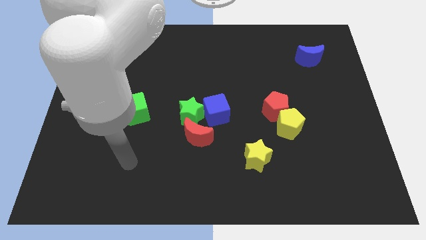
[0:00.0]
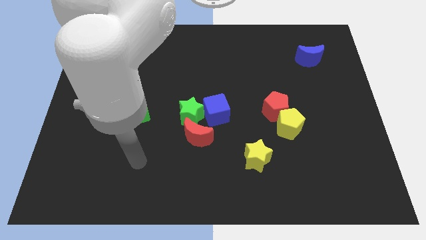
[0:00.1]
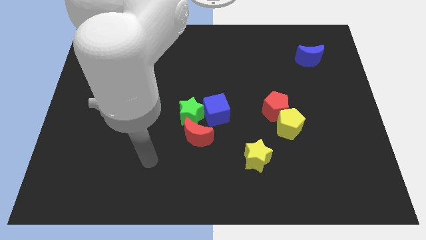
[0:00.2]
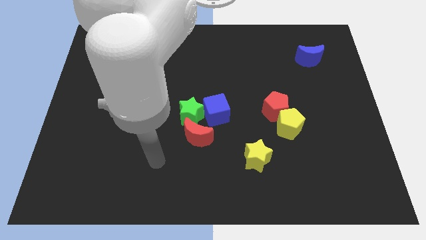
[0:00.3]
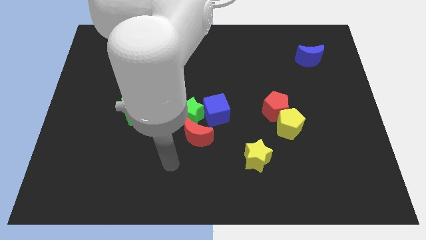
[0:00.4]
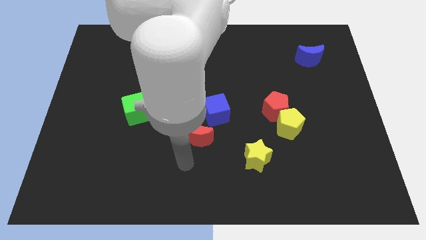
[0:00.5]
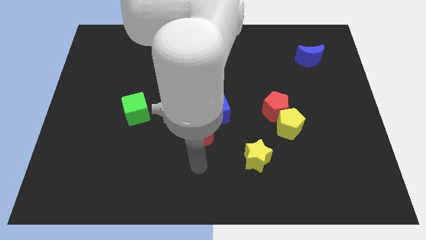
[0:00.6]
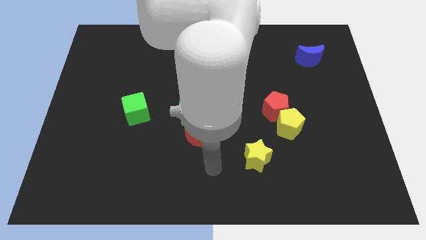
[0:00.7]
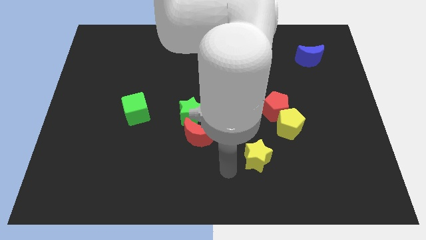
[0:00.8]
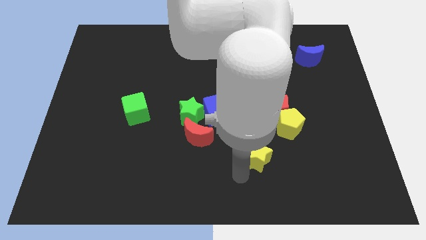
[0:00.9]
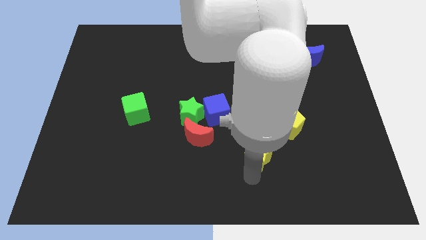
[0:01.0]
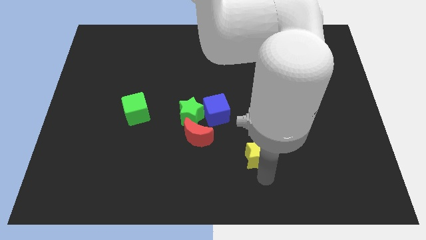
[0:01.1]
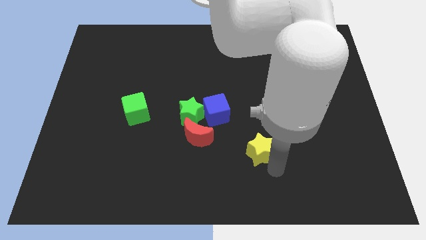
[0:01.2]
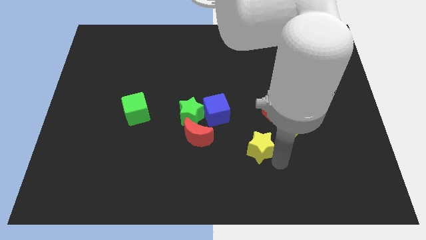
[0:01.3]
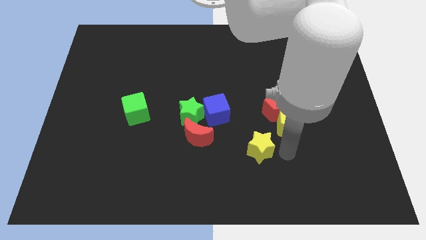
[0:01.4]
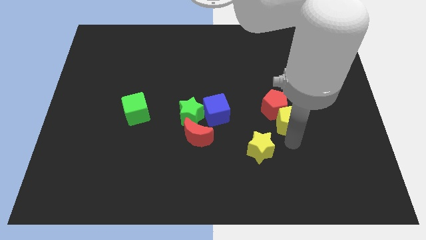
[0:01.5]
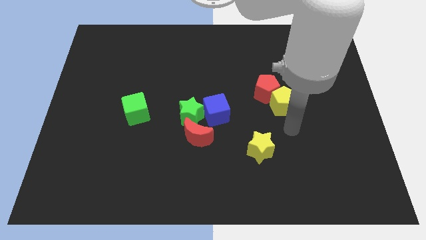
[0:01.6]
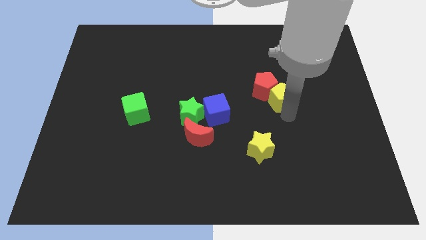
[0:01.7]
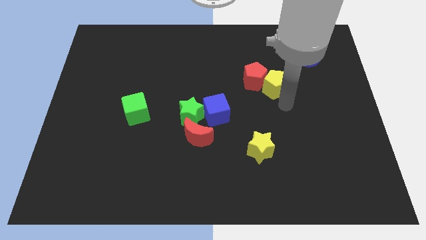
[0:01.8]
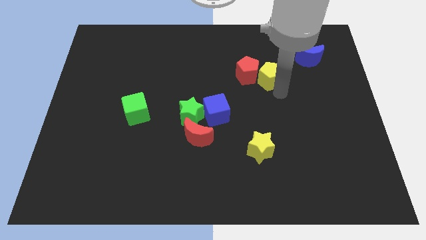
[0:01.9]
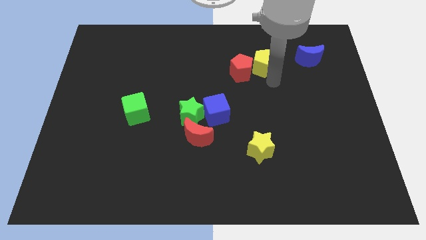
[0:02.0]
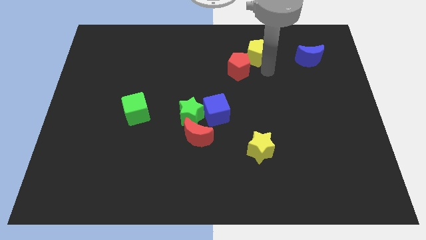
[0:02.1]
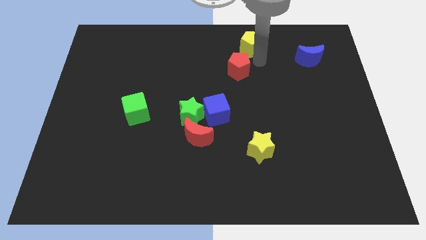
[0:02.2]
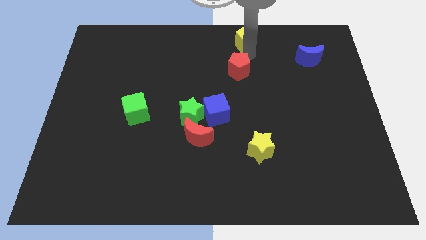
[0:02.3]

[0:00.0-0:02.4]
move the red pentagon away from the yellow pentagon

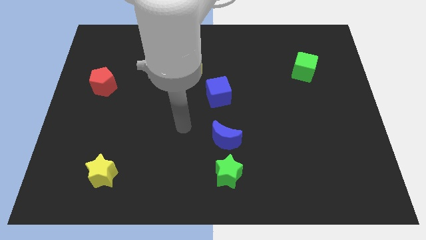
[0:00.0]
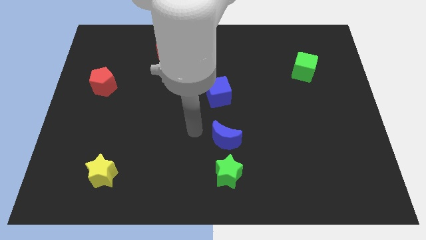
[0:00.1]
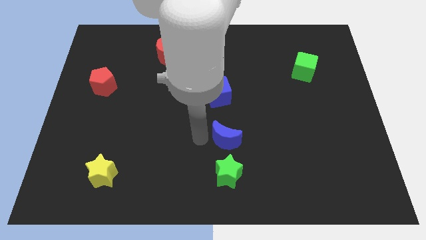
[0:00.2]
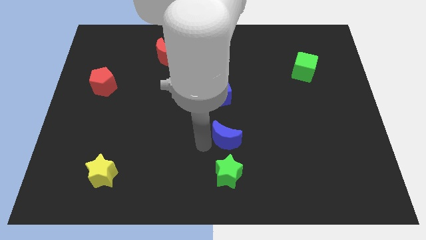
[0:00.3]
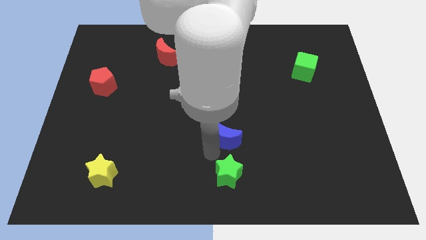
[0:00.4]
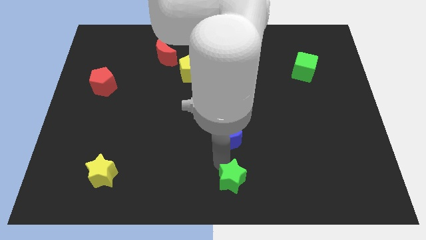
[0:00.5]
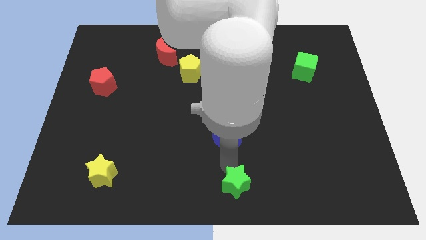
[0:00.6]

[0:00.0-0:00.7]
move the blue moon away from the green star

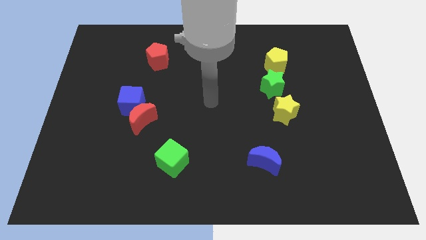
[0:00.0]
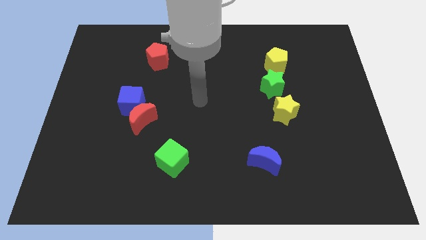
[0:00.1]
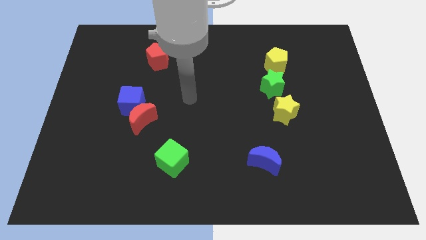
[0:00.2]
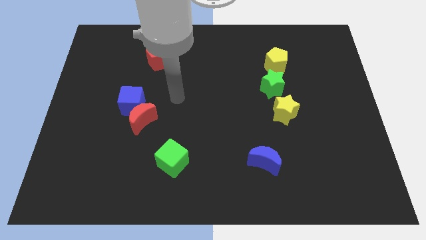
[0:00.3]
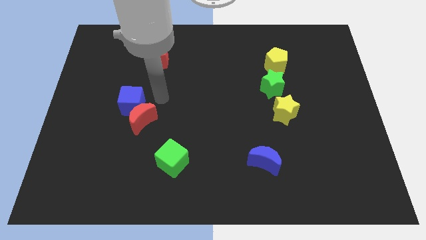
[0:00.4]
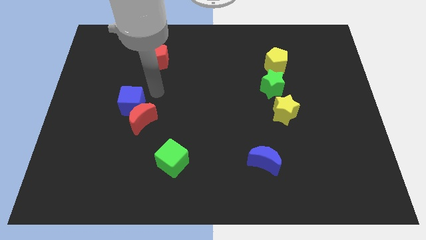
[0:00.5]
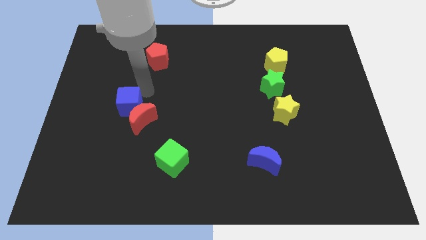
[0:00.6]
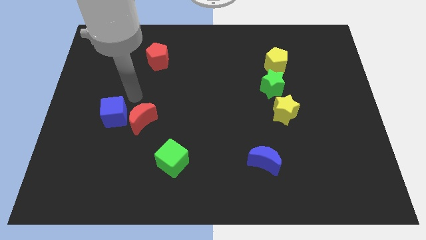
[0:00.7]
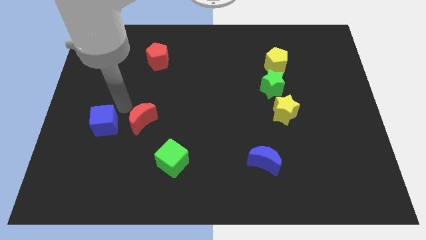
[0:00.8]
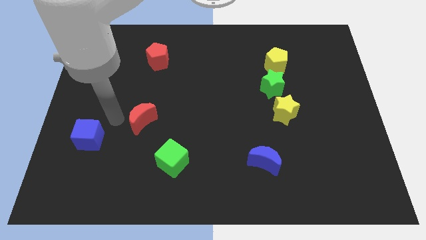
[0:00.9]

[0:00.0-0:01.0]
pull the red moon apart from the blue cube

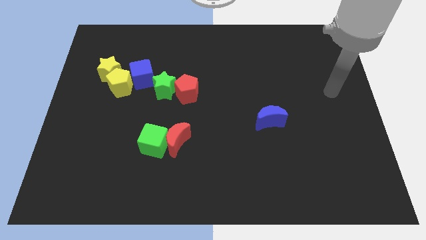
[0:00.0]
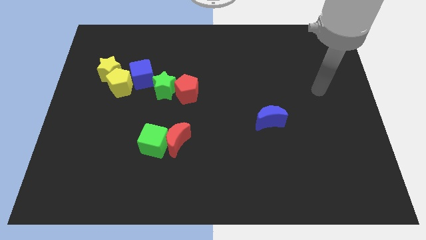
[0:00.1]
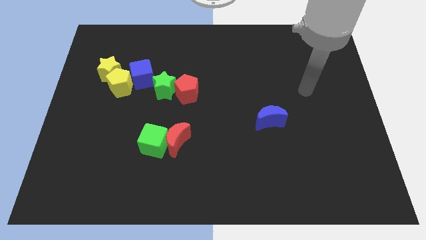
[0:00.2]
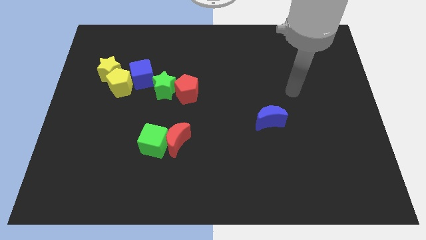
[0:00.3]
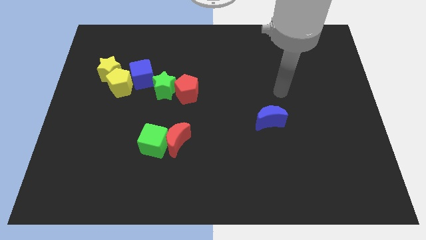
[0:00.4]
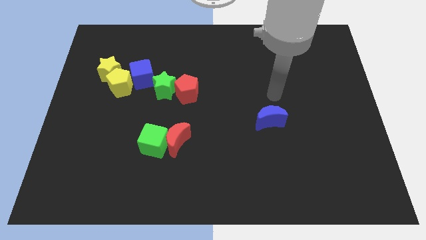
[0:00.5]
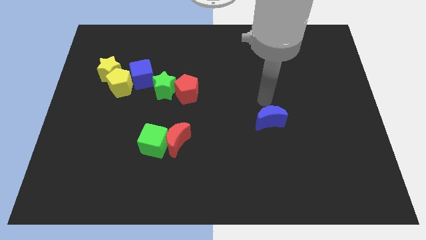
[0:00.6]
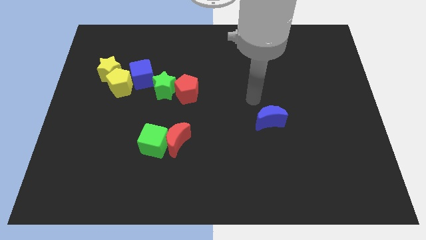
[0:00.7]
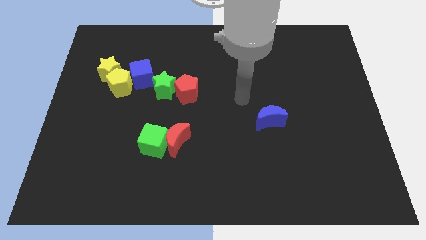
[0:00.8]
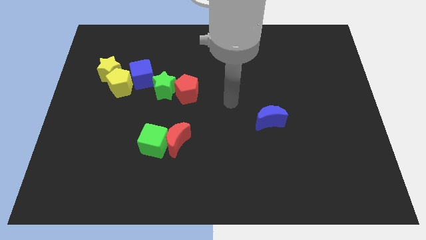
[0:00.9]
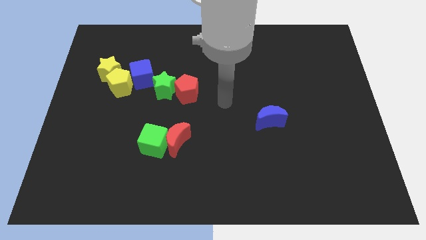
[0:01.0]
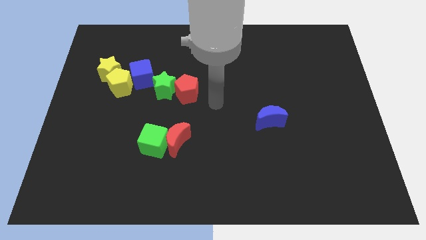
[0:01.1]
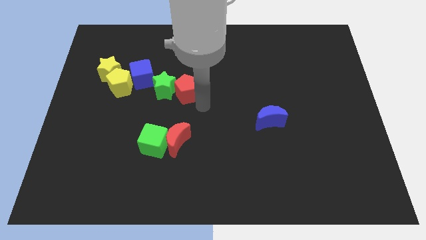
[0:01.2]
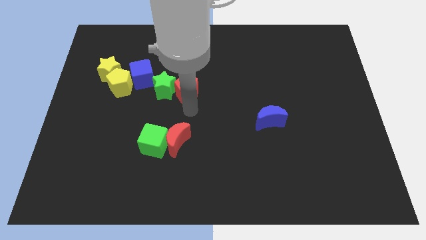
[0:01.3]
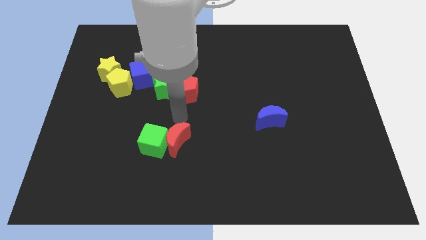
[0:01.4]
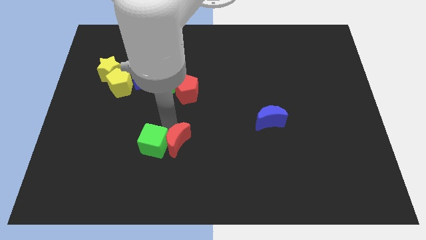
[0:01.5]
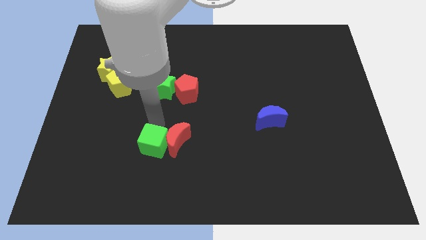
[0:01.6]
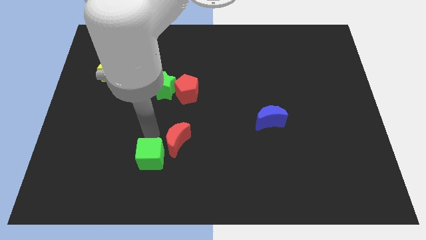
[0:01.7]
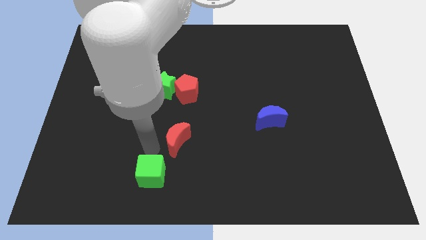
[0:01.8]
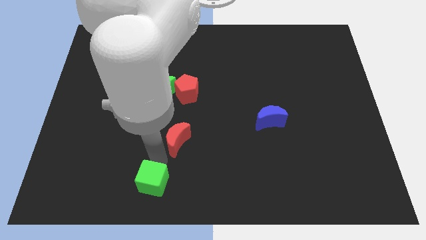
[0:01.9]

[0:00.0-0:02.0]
move the red moon away from the green cube

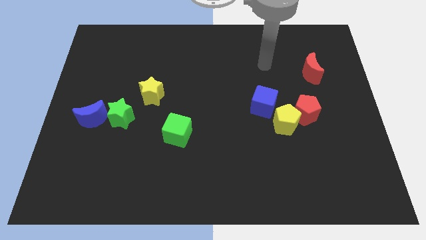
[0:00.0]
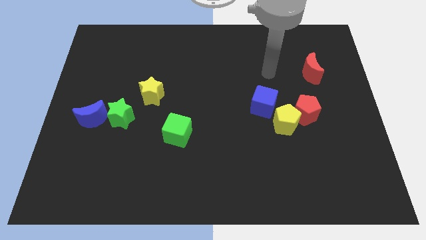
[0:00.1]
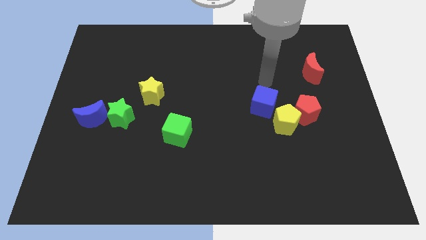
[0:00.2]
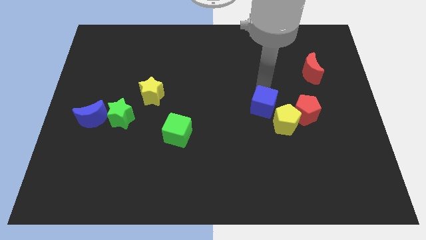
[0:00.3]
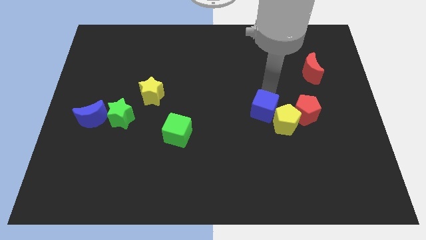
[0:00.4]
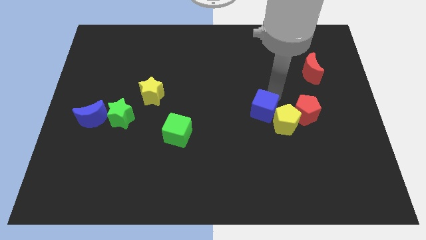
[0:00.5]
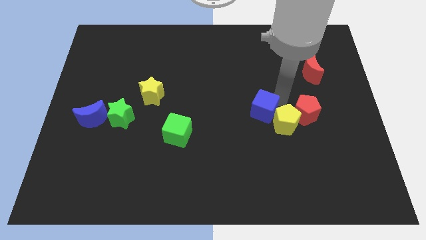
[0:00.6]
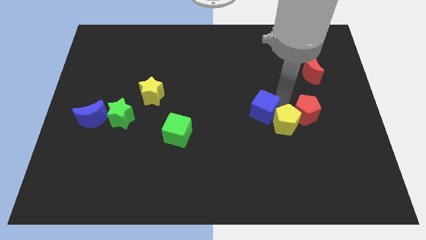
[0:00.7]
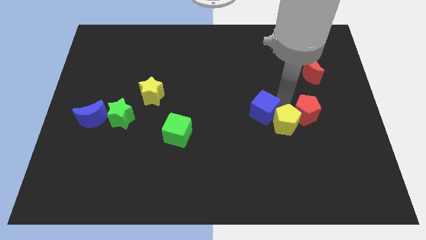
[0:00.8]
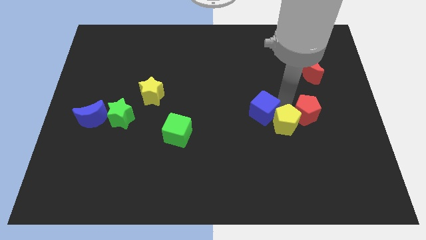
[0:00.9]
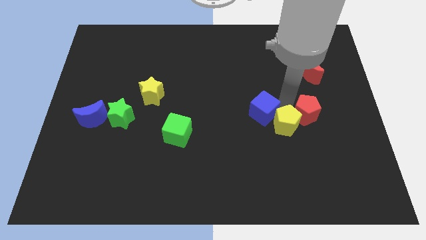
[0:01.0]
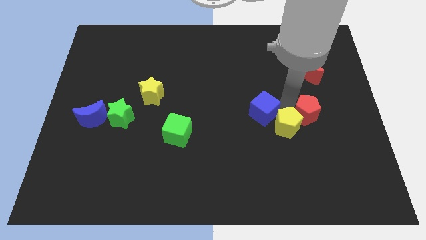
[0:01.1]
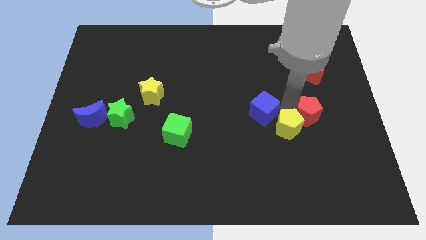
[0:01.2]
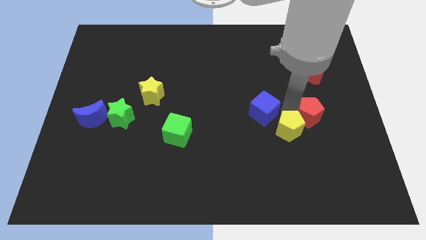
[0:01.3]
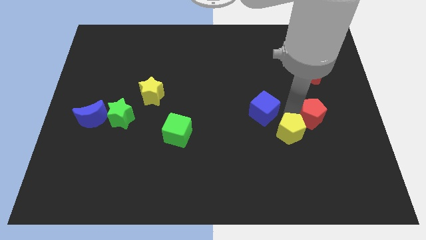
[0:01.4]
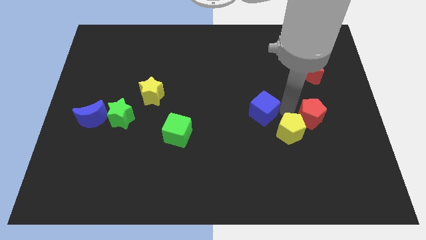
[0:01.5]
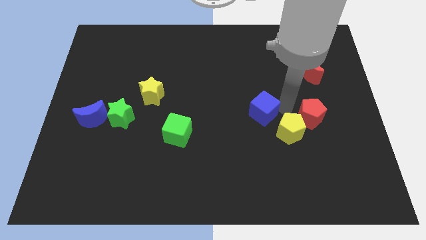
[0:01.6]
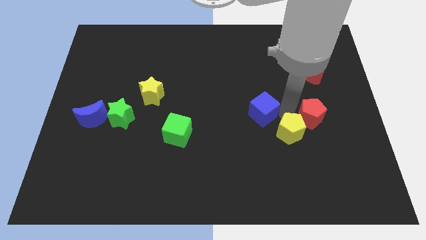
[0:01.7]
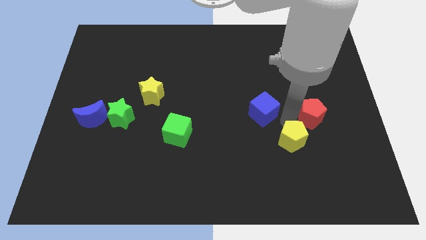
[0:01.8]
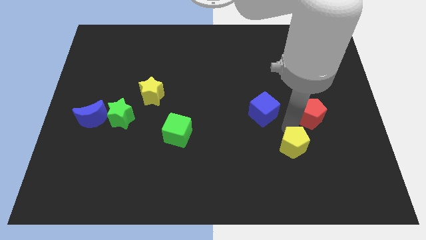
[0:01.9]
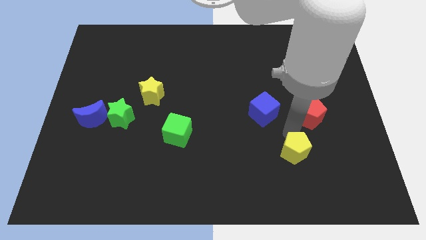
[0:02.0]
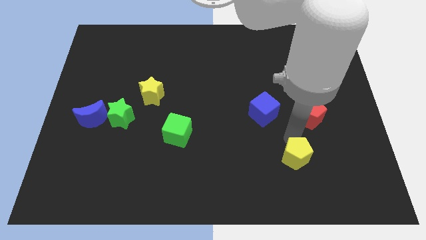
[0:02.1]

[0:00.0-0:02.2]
move the yellow pentagon away from the red pentagon and blue cube

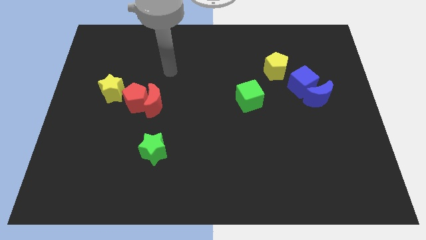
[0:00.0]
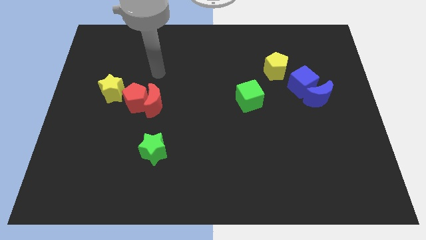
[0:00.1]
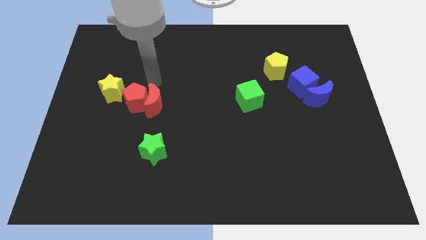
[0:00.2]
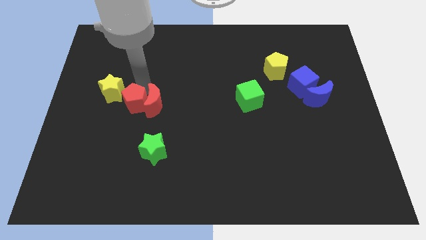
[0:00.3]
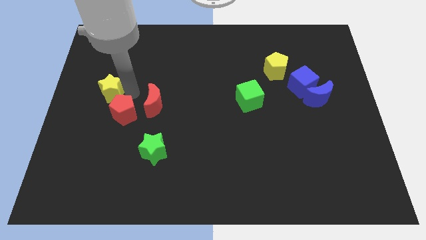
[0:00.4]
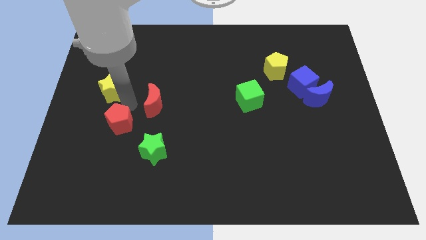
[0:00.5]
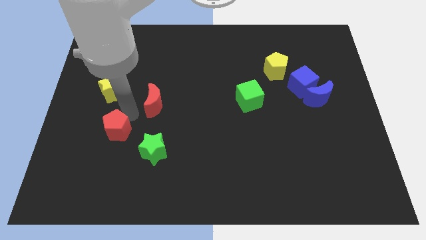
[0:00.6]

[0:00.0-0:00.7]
move the red moon away from the red pentagon

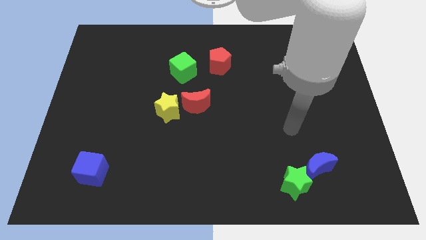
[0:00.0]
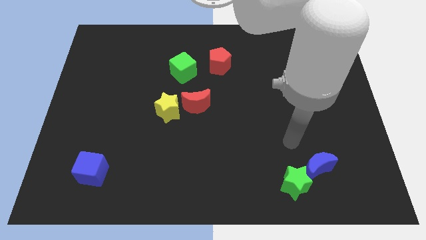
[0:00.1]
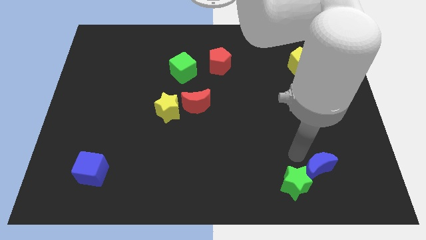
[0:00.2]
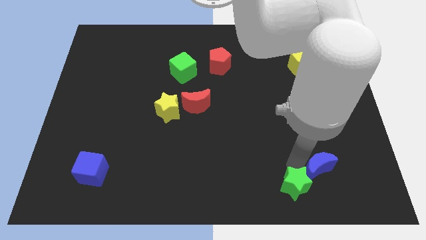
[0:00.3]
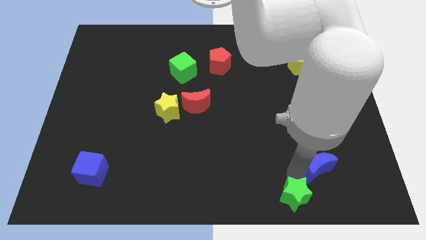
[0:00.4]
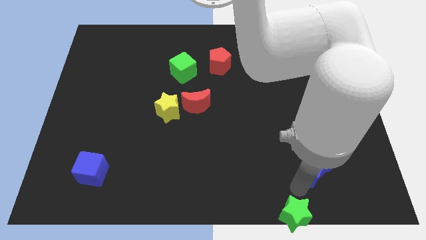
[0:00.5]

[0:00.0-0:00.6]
separate the blue moon from the green star
